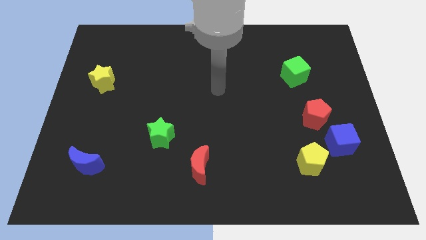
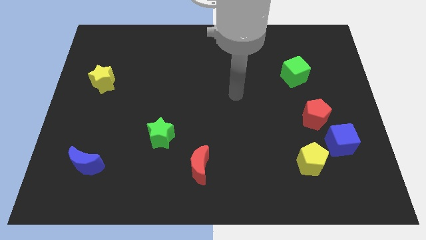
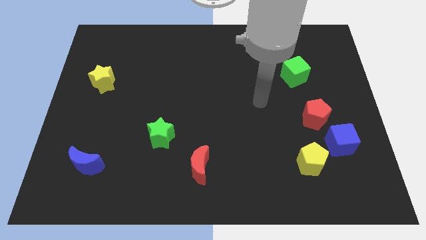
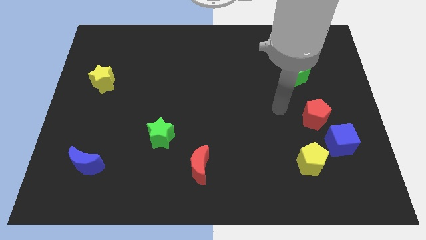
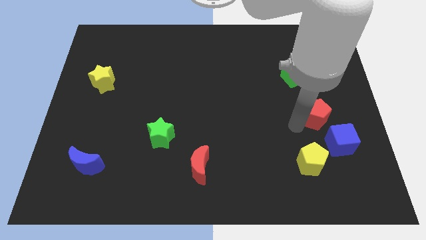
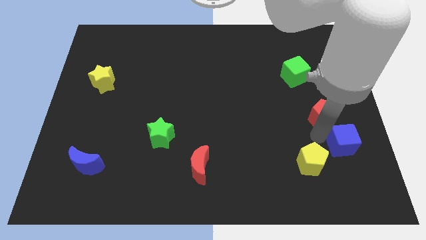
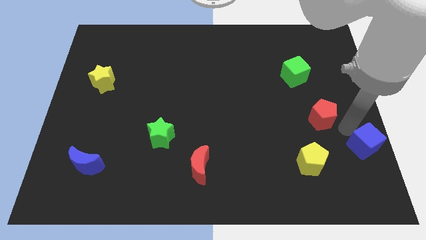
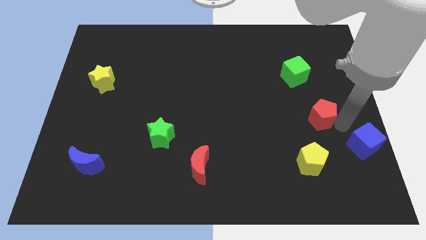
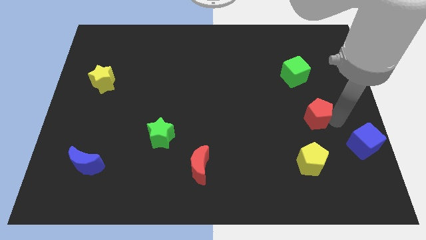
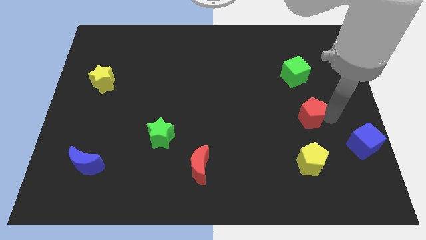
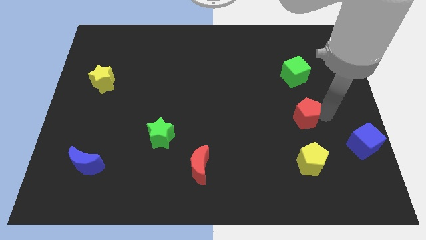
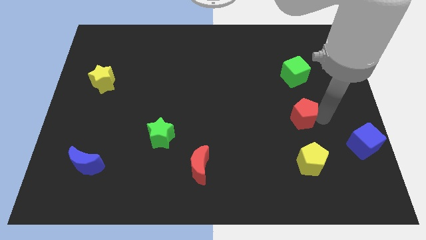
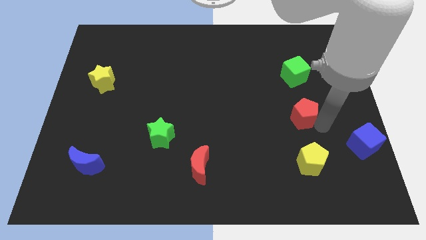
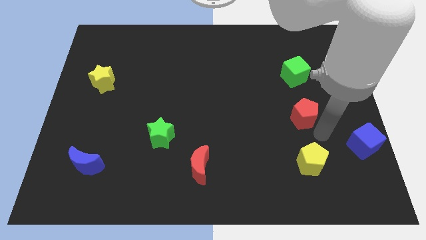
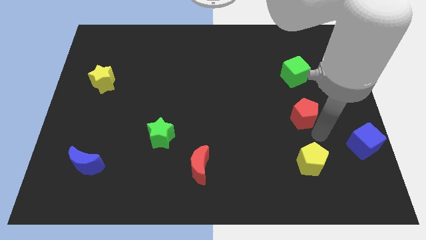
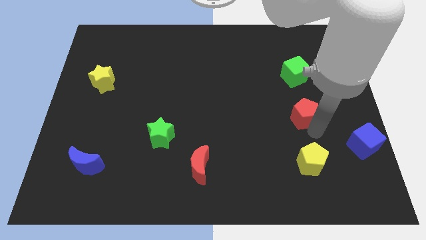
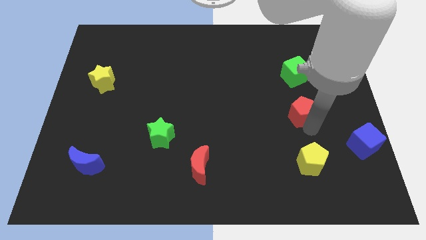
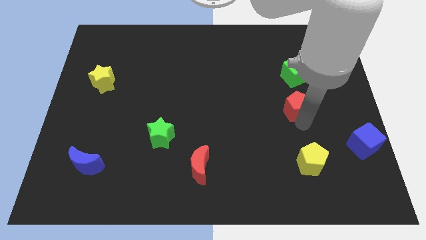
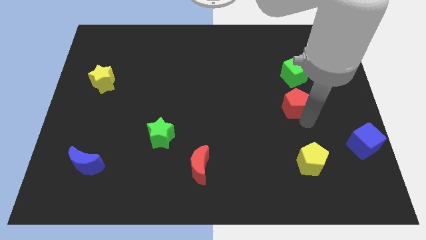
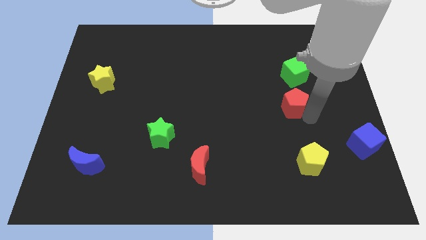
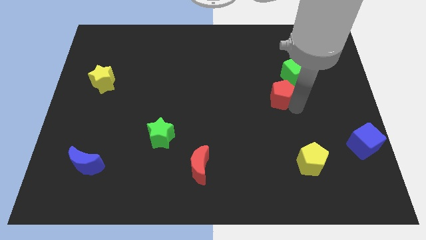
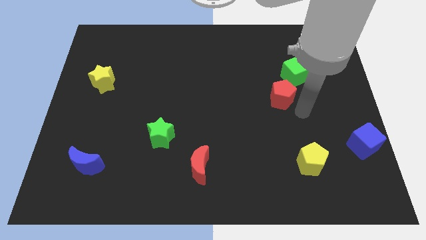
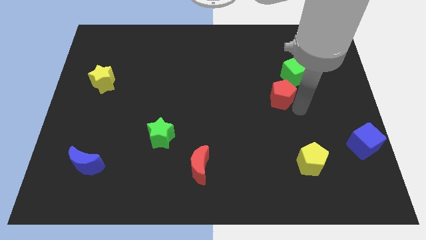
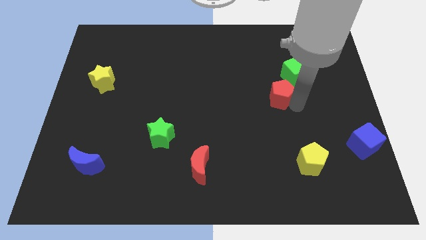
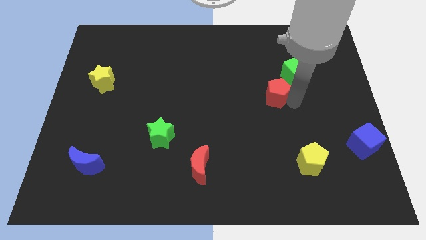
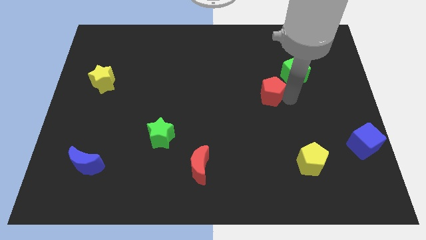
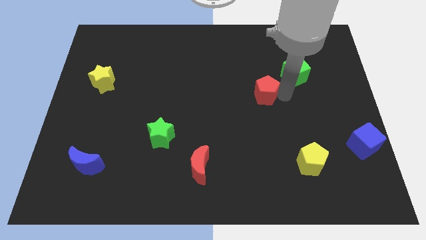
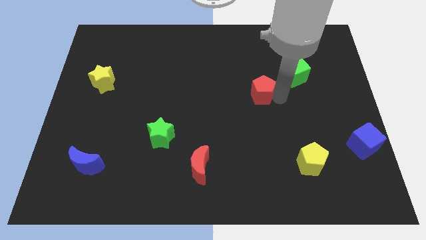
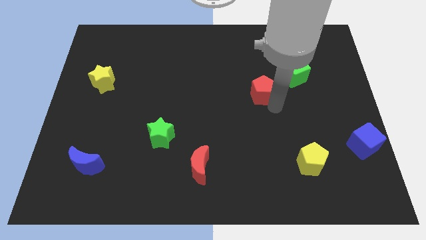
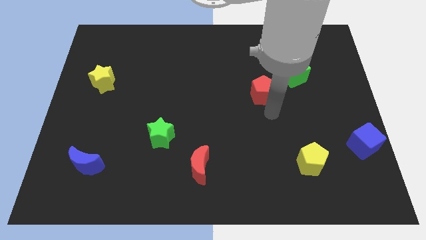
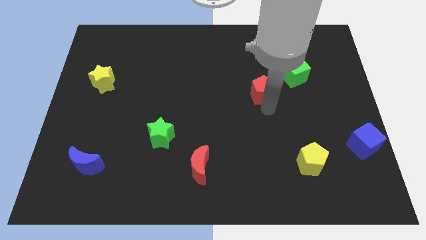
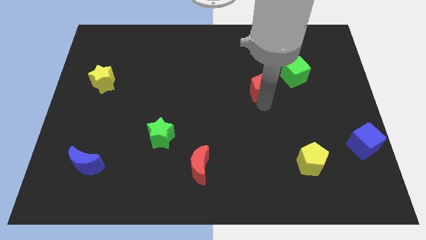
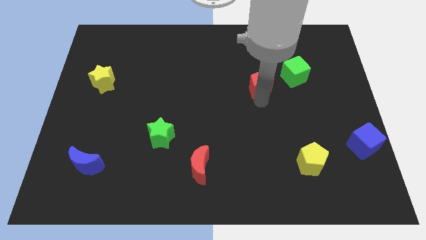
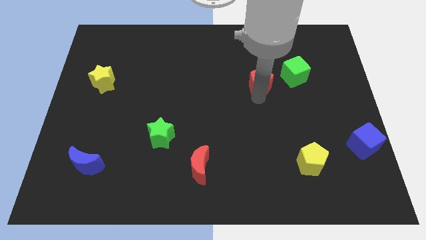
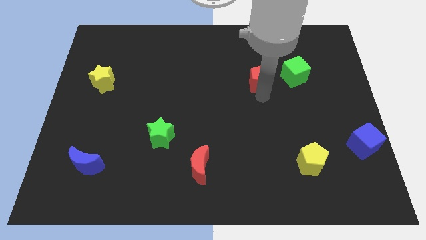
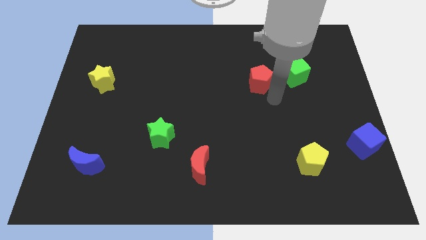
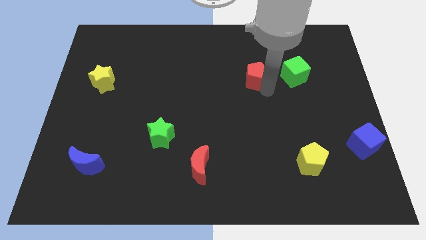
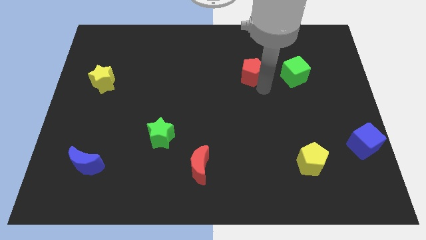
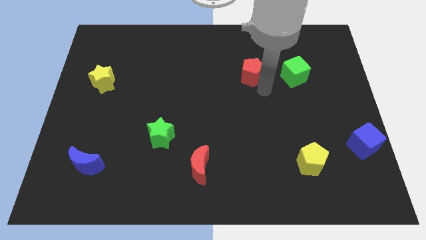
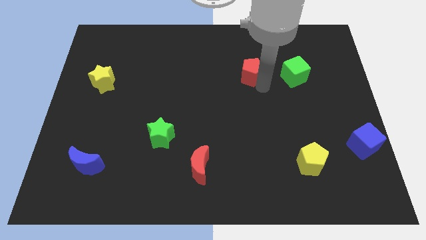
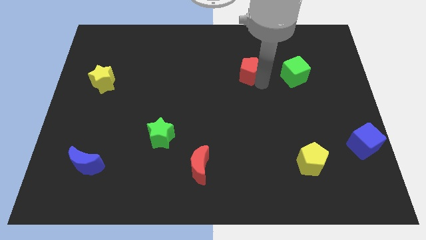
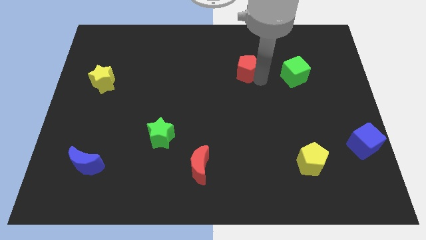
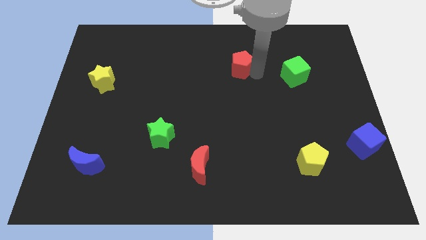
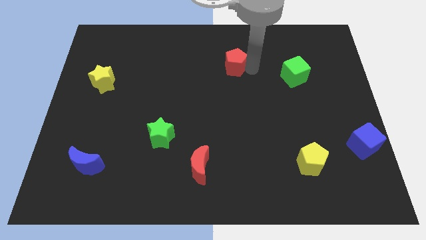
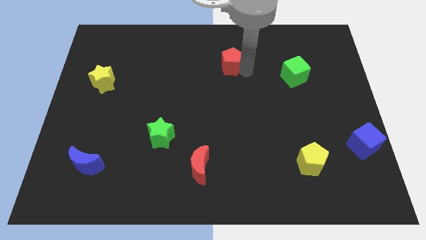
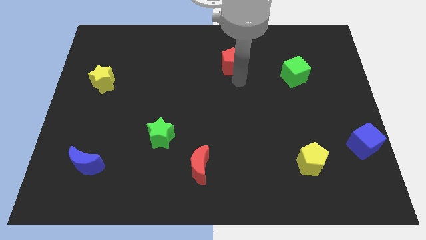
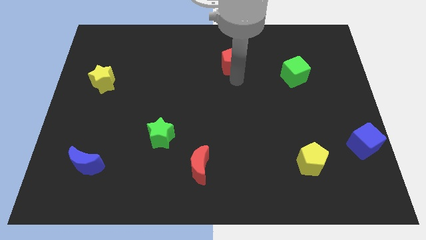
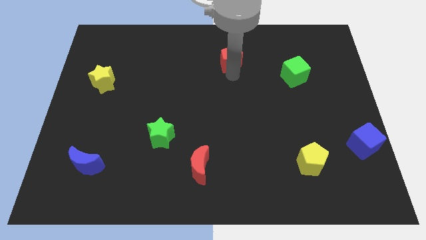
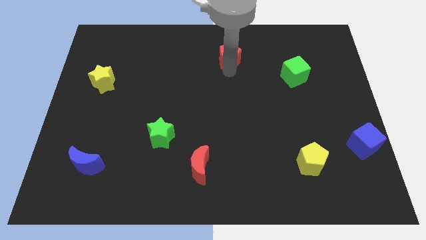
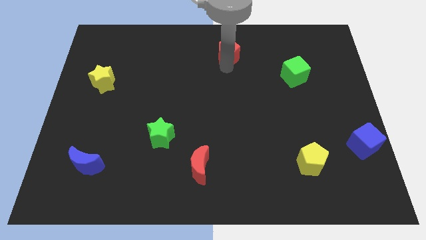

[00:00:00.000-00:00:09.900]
push the red pentagon to the top side

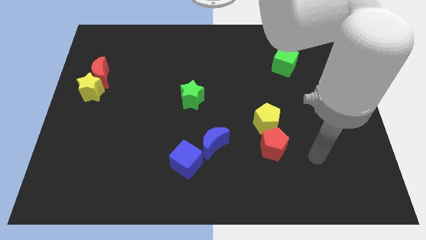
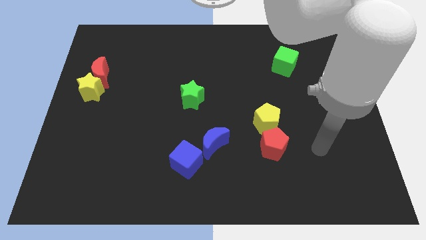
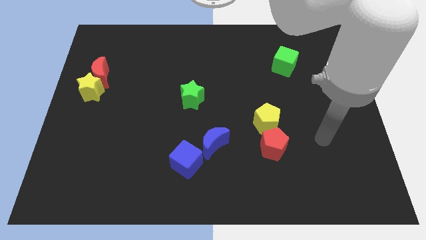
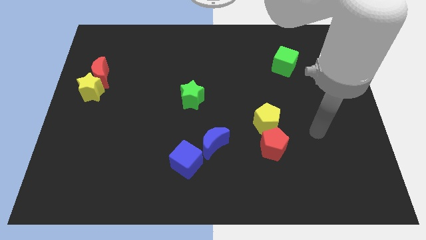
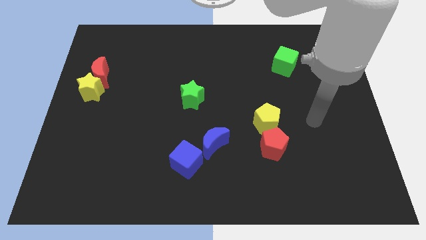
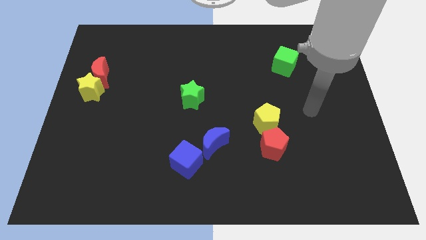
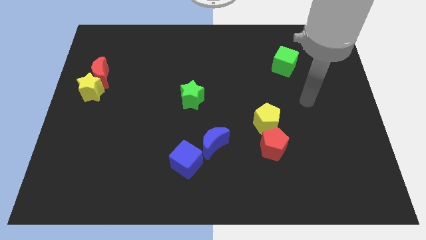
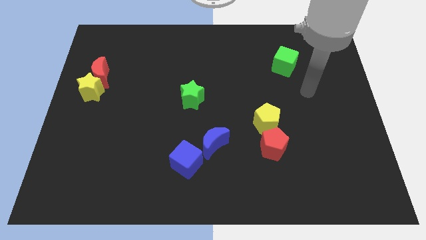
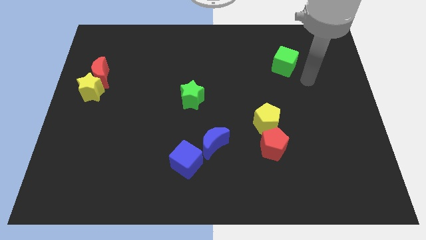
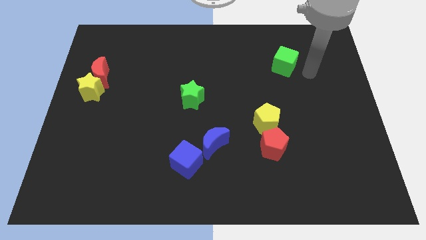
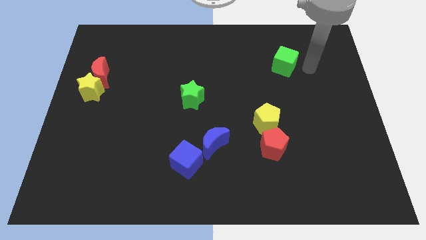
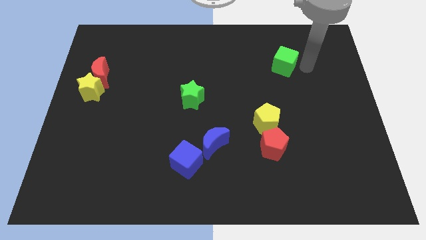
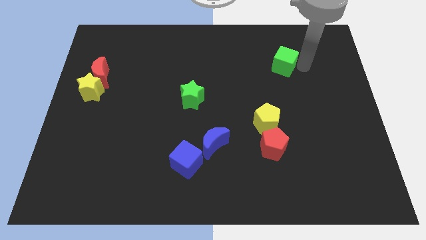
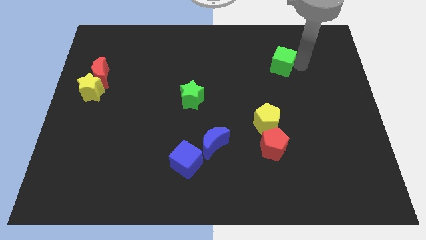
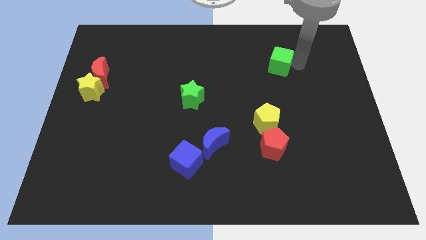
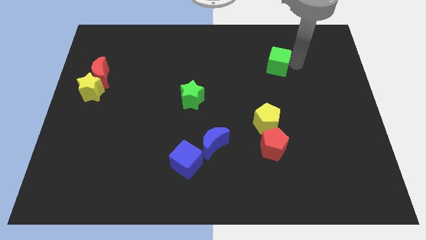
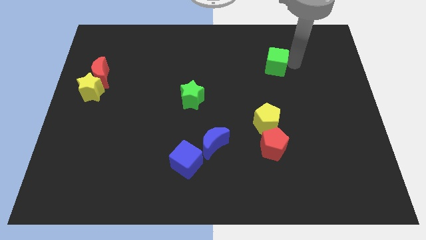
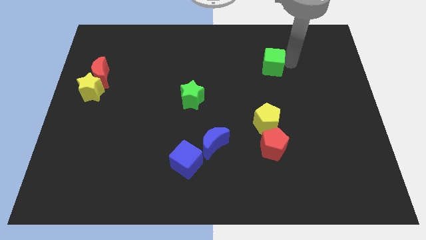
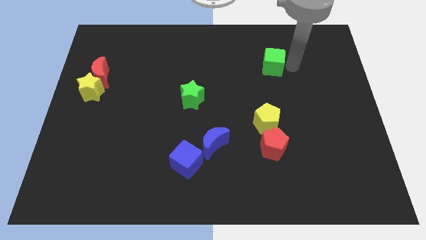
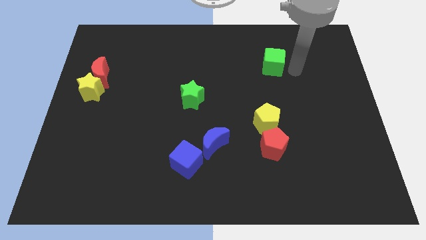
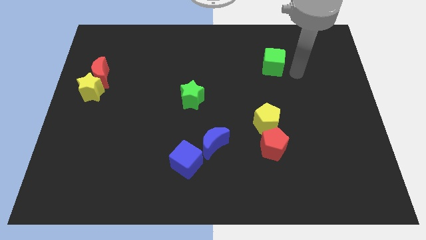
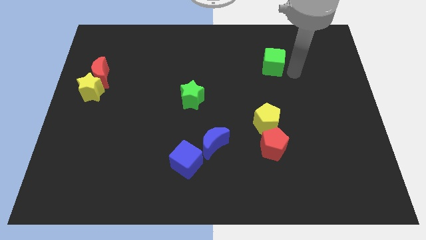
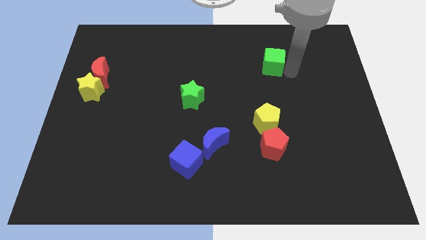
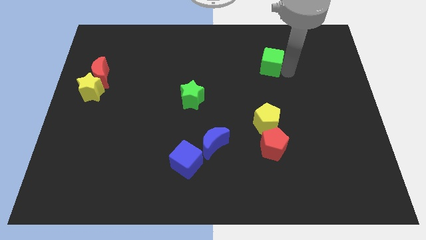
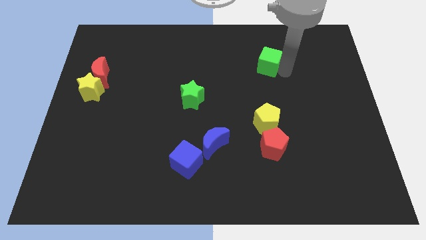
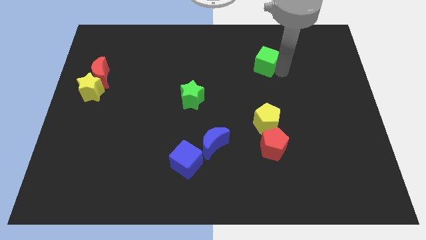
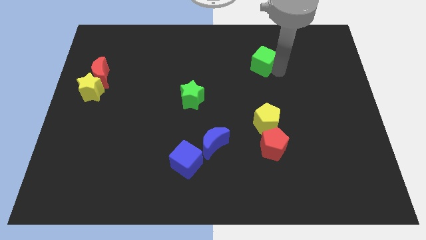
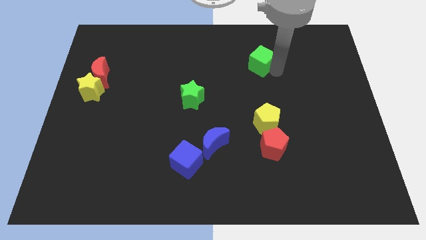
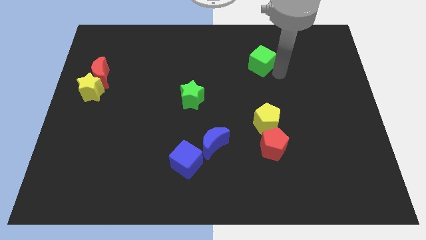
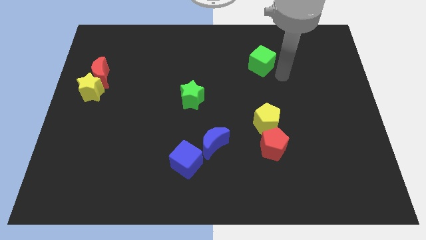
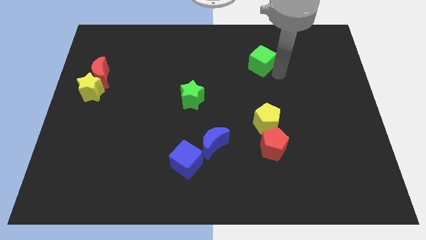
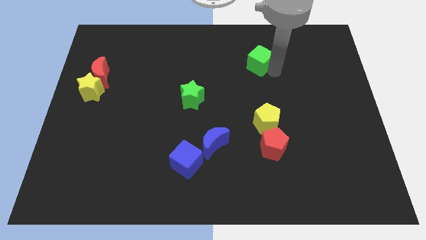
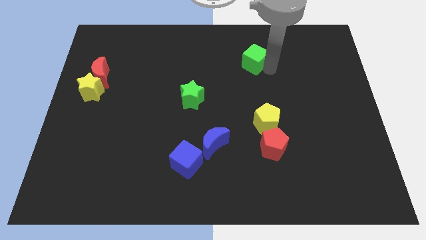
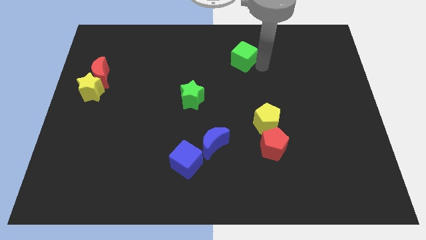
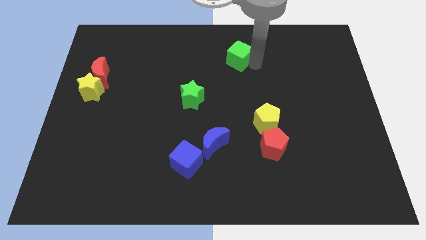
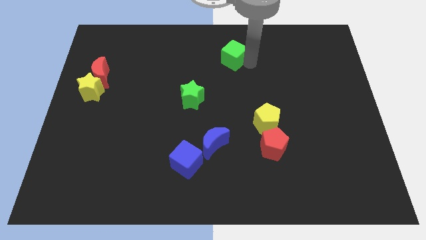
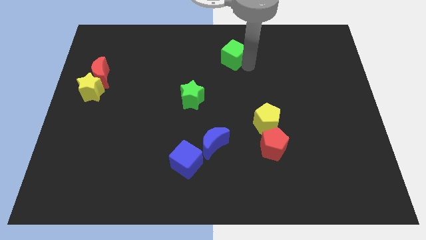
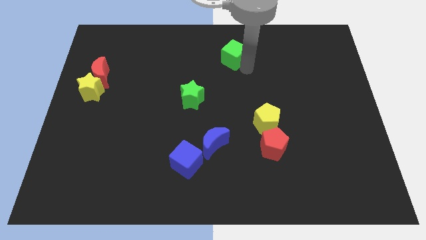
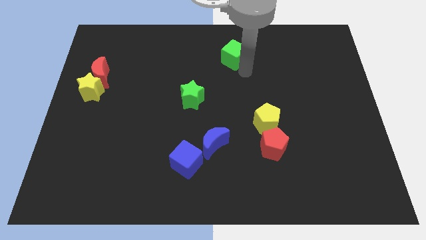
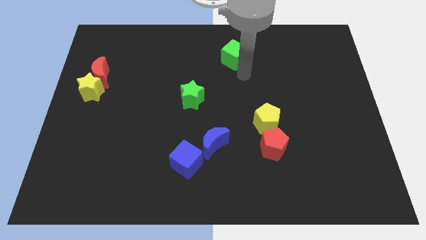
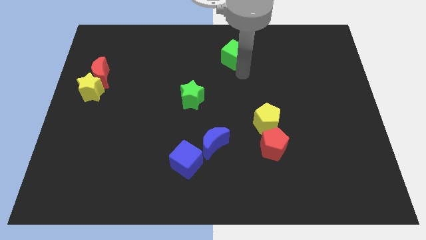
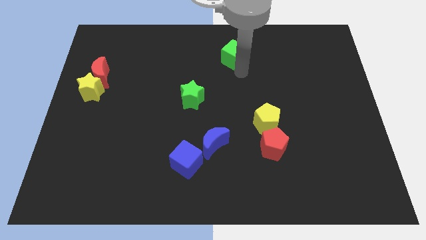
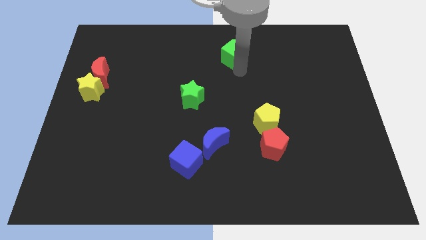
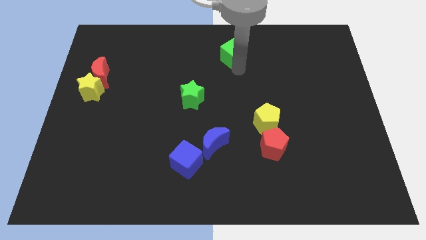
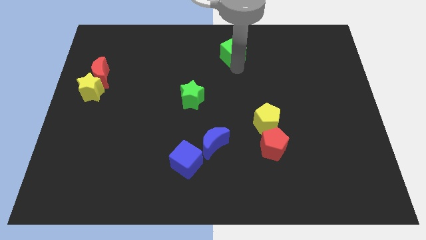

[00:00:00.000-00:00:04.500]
slide the green cube to the towards your base
